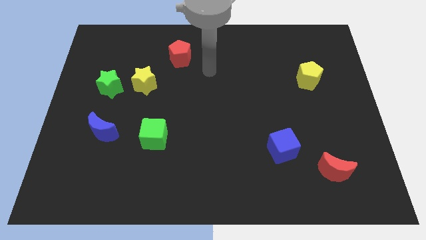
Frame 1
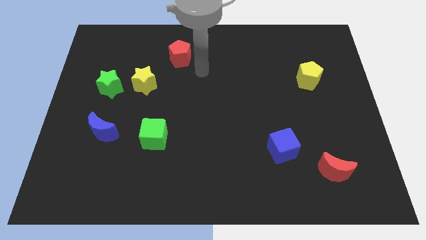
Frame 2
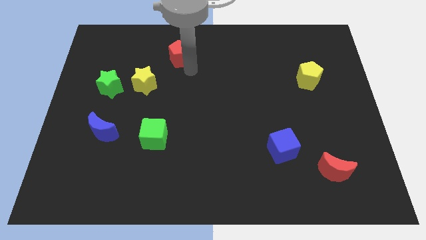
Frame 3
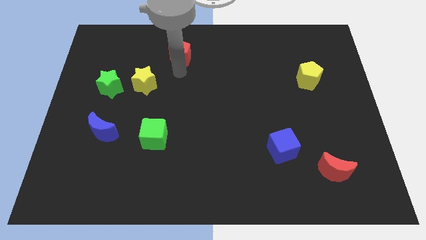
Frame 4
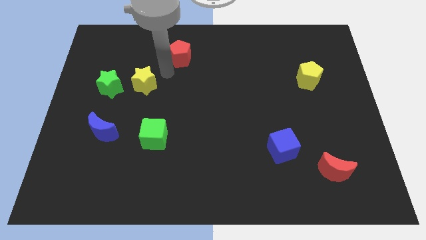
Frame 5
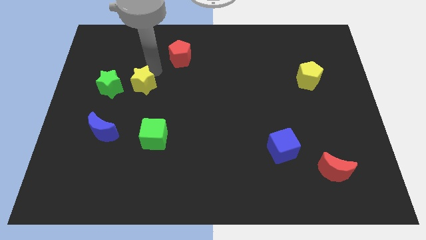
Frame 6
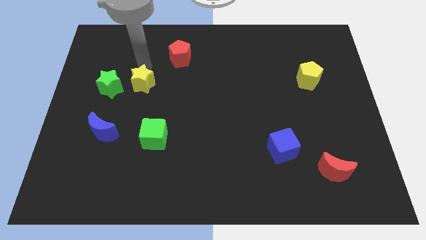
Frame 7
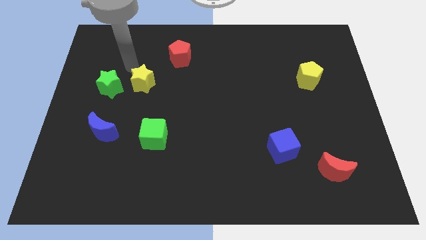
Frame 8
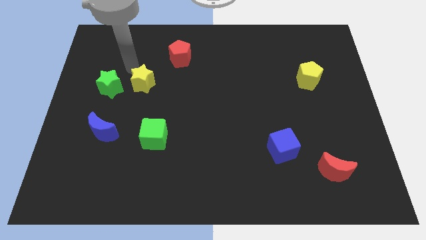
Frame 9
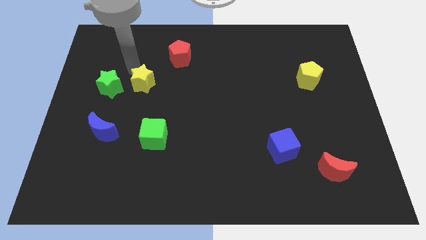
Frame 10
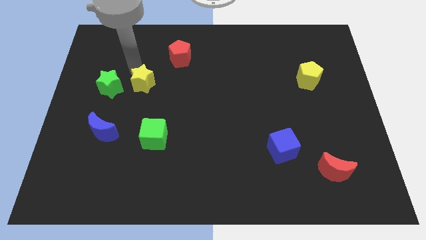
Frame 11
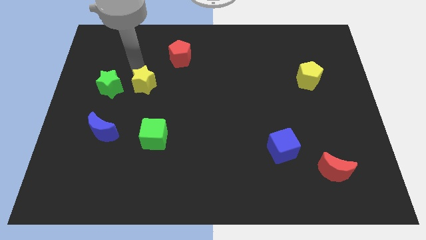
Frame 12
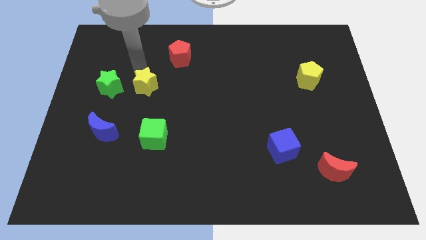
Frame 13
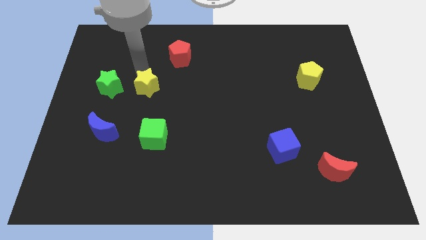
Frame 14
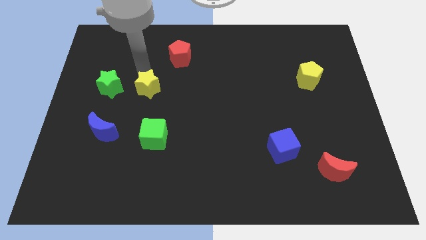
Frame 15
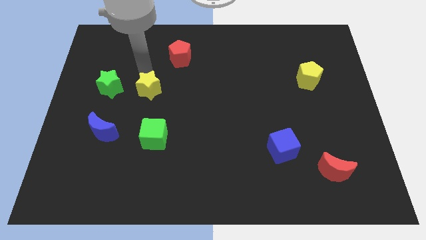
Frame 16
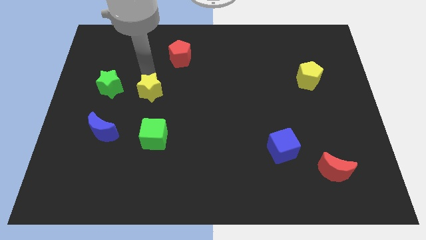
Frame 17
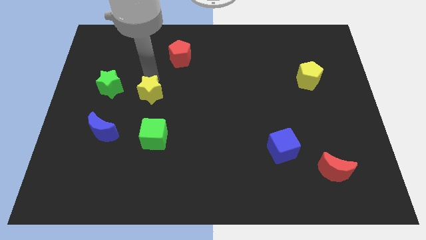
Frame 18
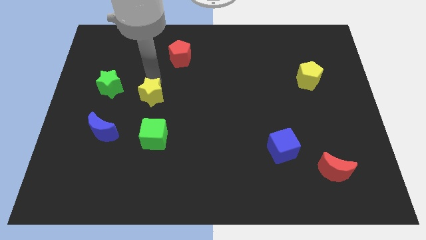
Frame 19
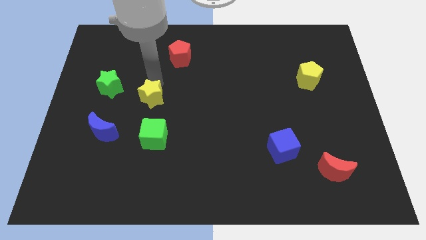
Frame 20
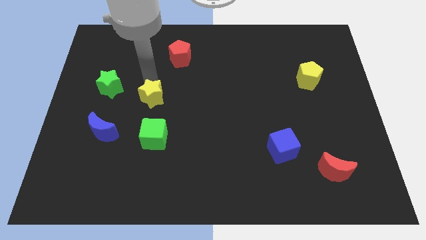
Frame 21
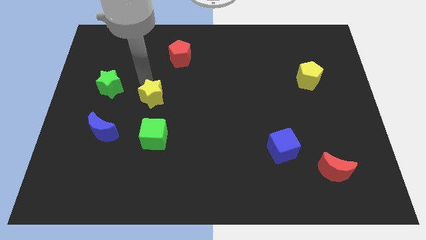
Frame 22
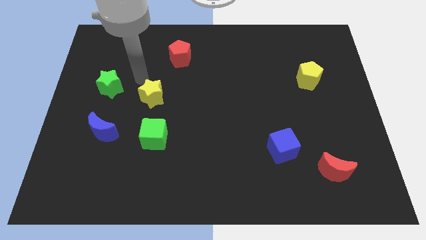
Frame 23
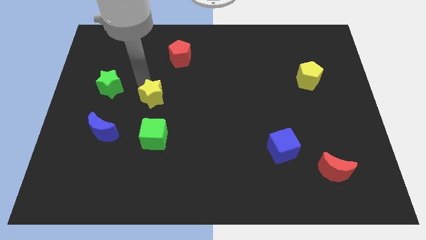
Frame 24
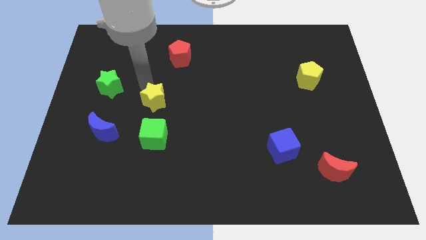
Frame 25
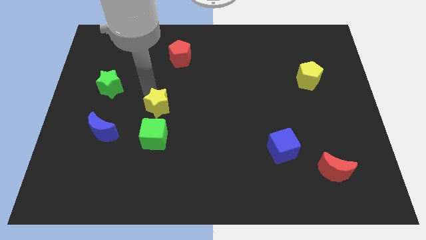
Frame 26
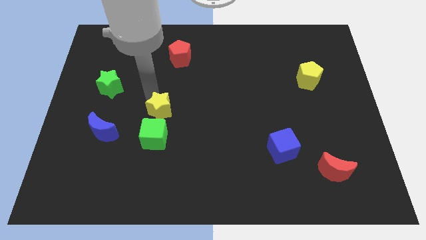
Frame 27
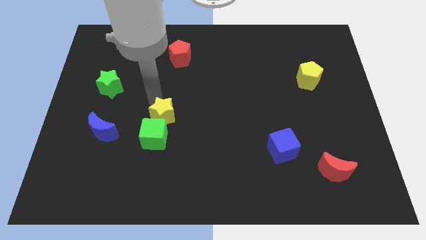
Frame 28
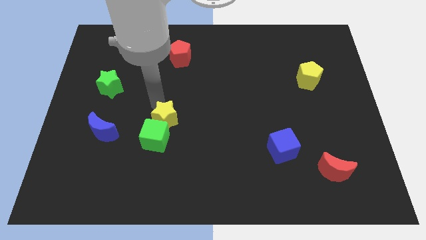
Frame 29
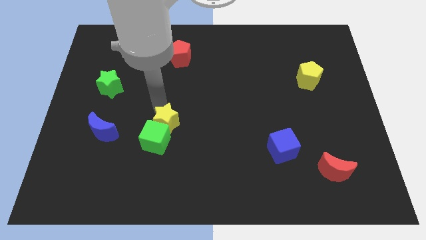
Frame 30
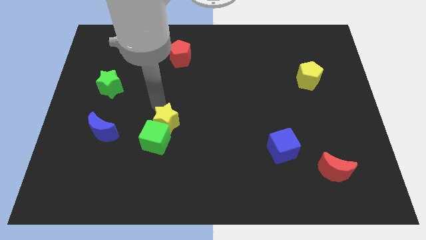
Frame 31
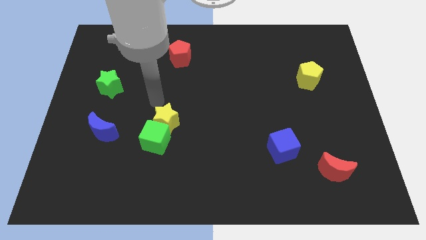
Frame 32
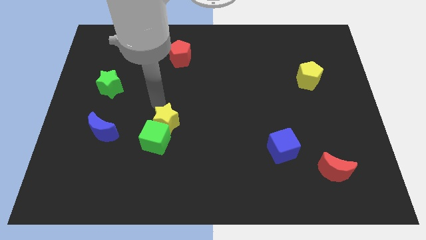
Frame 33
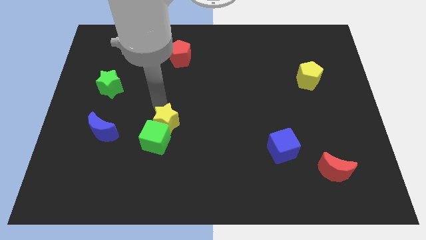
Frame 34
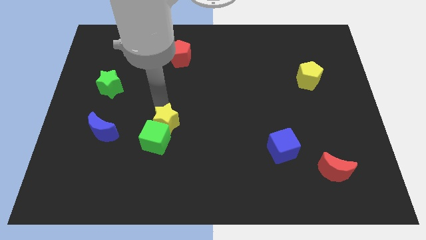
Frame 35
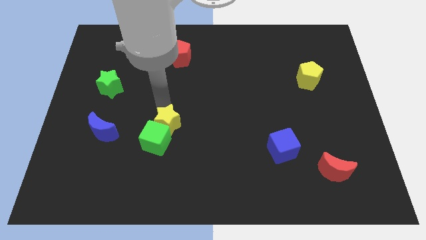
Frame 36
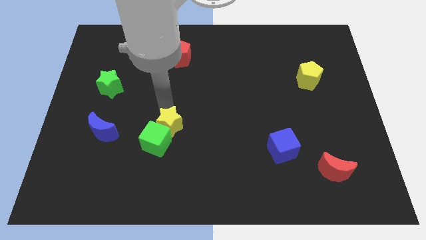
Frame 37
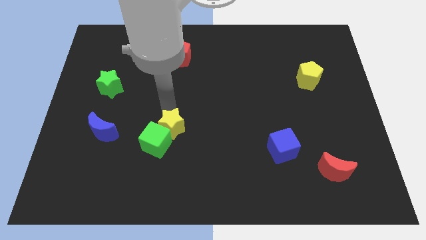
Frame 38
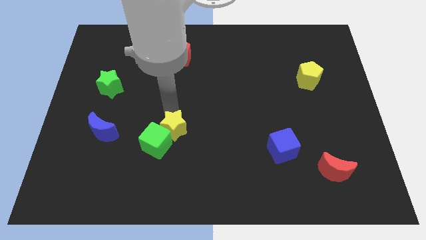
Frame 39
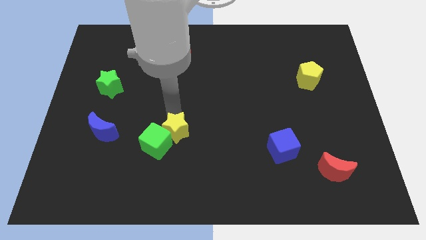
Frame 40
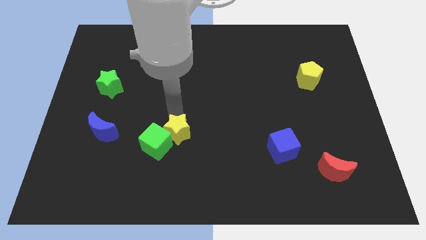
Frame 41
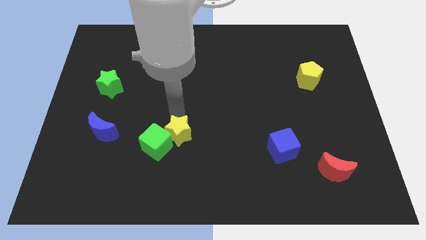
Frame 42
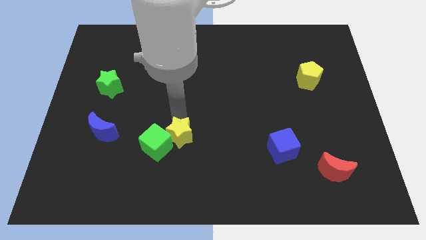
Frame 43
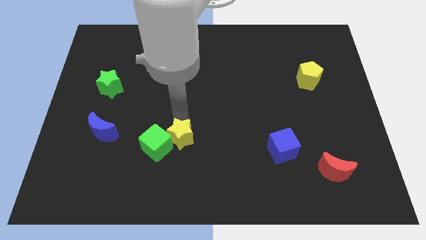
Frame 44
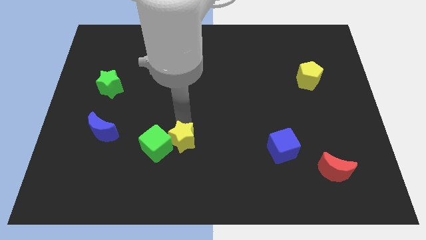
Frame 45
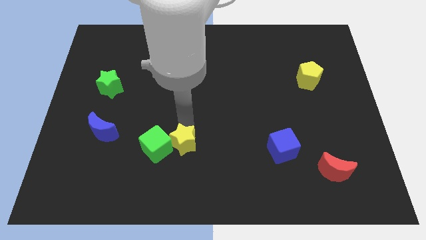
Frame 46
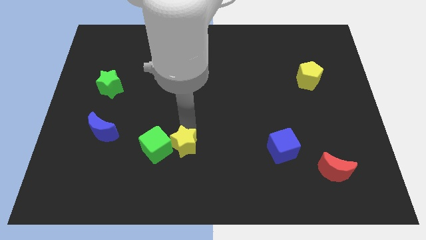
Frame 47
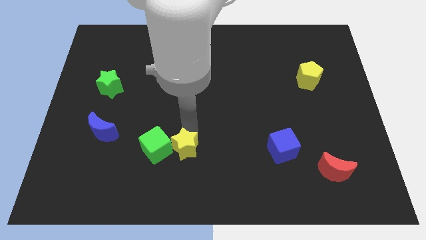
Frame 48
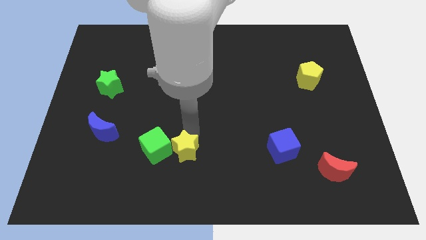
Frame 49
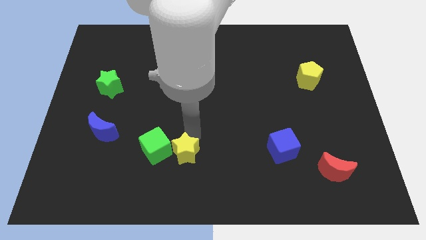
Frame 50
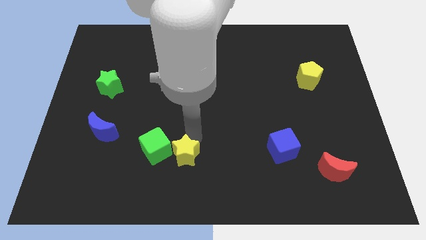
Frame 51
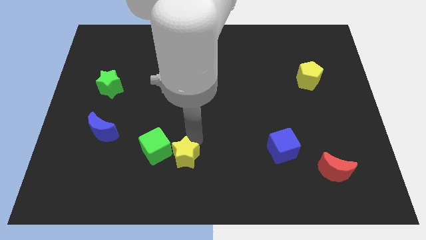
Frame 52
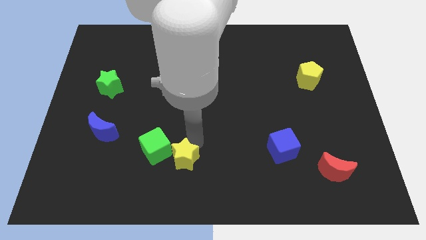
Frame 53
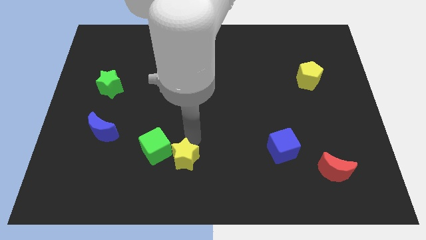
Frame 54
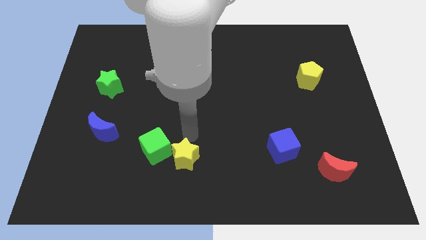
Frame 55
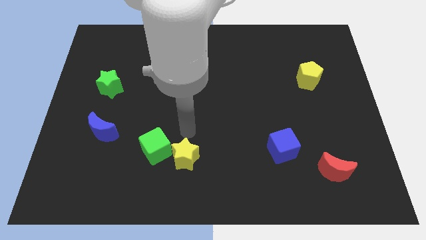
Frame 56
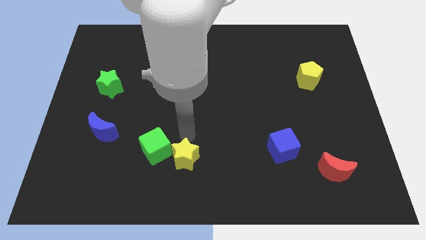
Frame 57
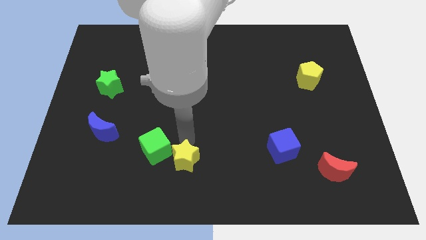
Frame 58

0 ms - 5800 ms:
move the yellow star to the bottom side
